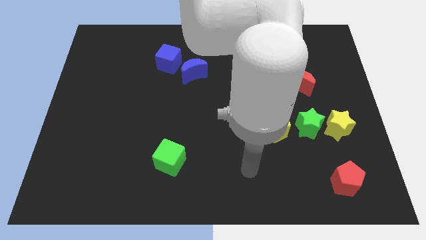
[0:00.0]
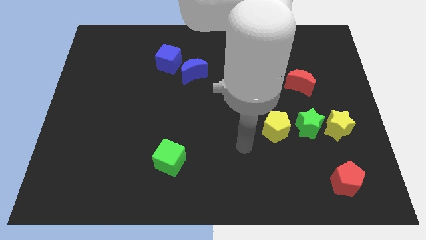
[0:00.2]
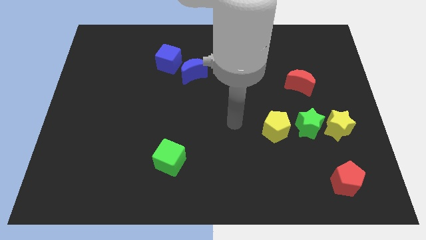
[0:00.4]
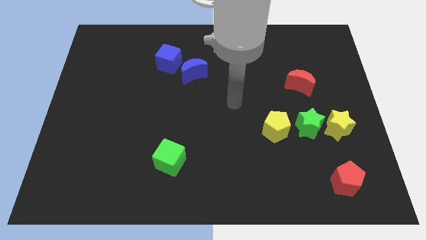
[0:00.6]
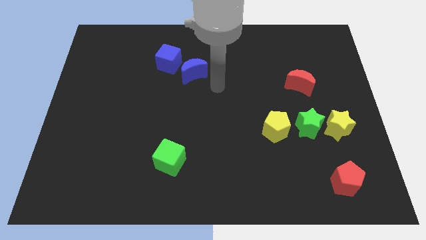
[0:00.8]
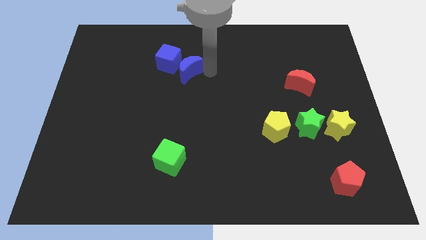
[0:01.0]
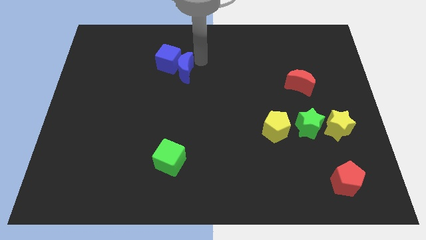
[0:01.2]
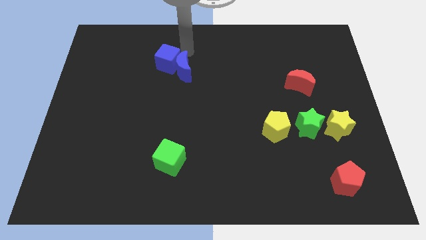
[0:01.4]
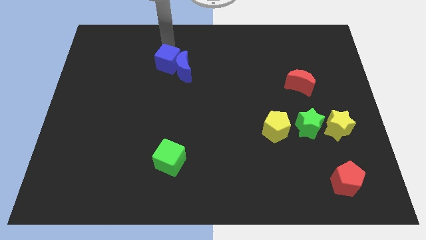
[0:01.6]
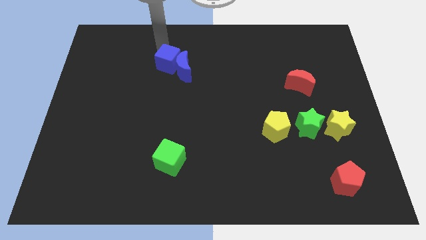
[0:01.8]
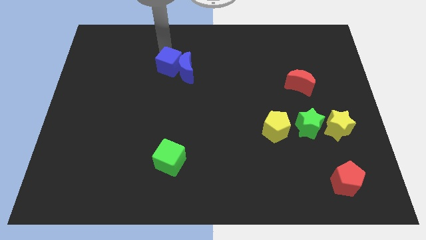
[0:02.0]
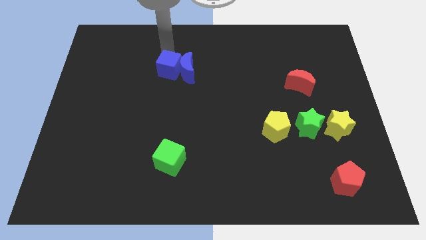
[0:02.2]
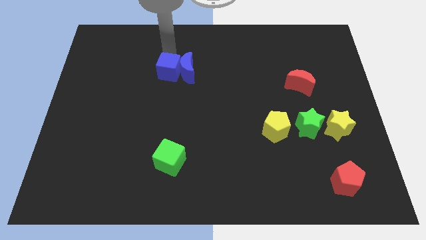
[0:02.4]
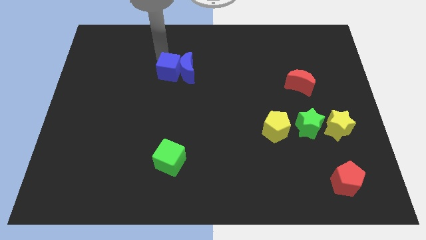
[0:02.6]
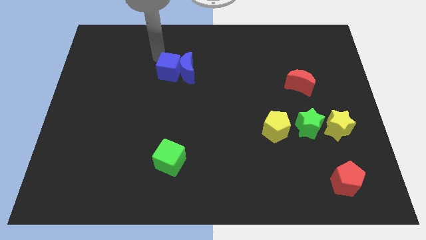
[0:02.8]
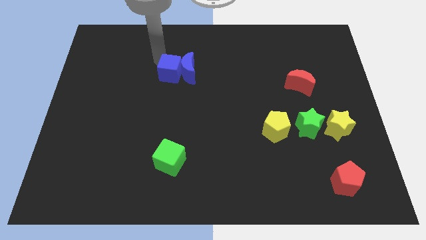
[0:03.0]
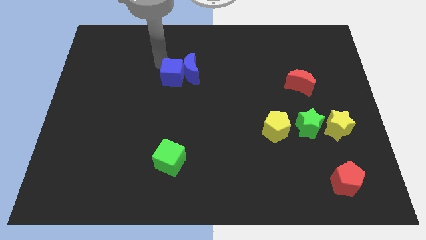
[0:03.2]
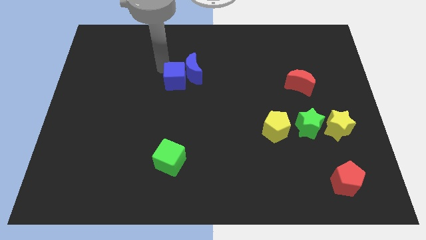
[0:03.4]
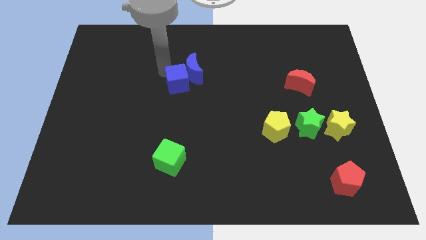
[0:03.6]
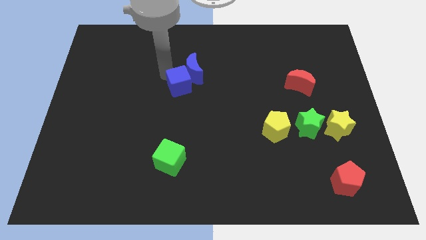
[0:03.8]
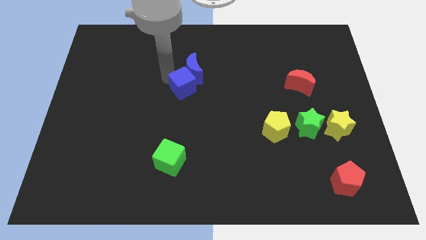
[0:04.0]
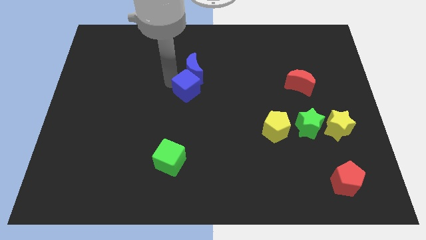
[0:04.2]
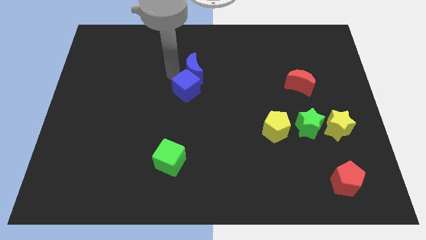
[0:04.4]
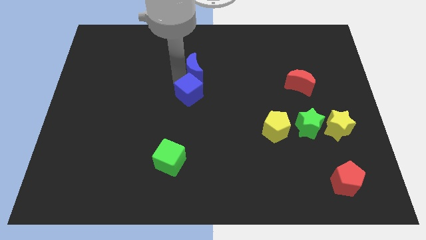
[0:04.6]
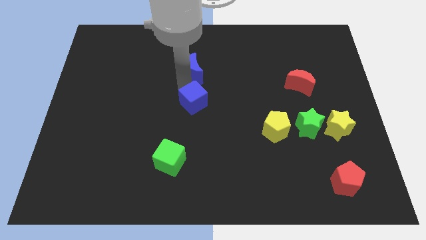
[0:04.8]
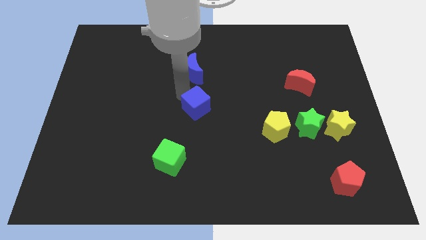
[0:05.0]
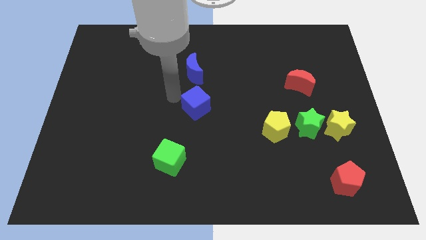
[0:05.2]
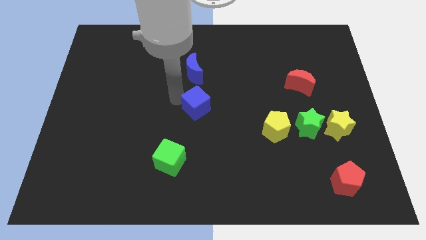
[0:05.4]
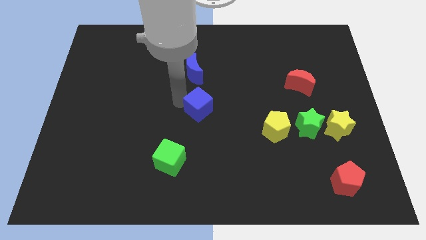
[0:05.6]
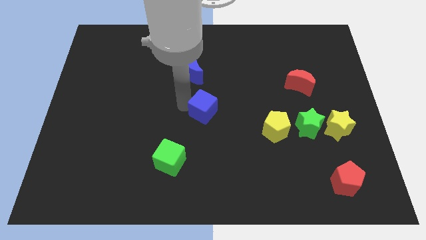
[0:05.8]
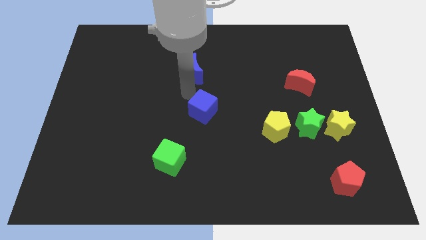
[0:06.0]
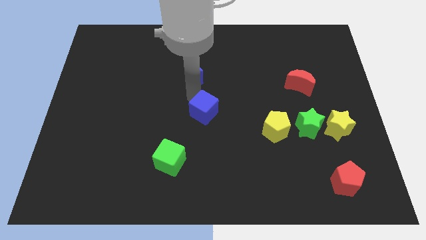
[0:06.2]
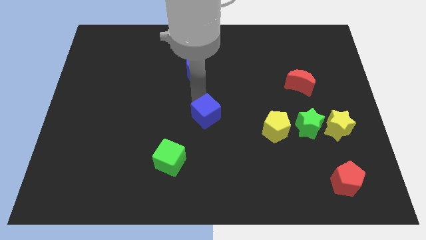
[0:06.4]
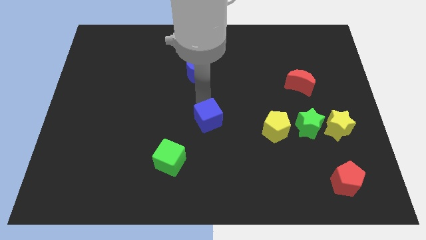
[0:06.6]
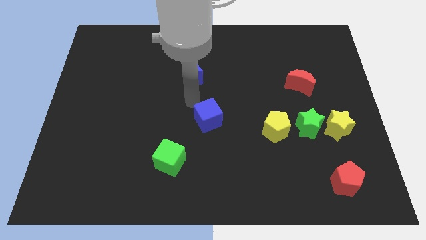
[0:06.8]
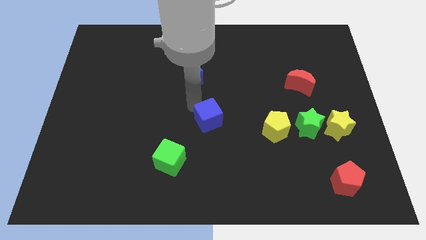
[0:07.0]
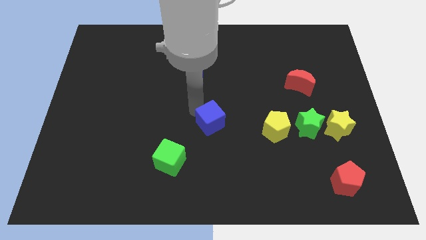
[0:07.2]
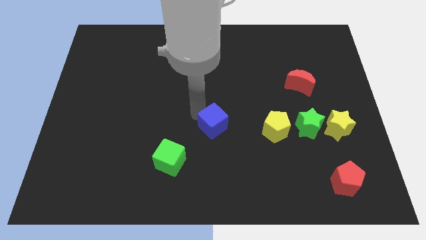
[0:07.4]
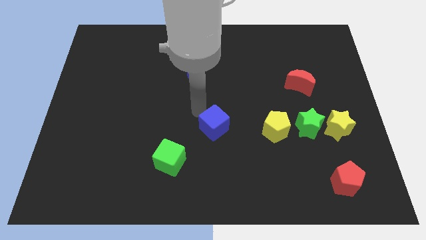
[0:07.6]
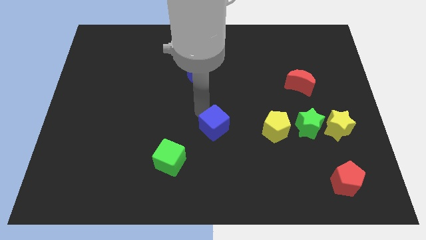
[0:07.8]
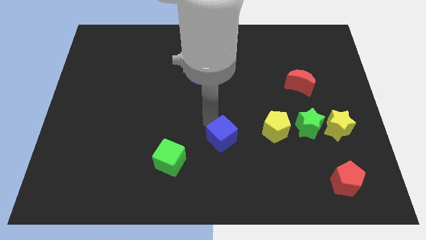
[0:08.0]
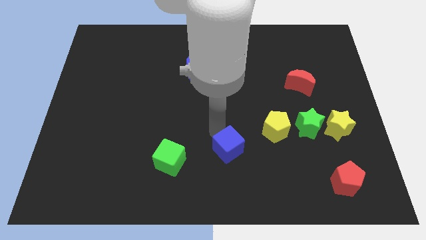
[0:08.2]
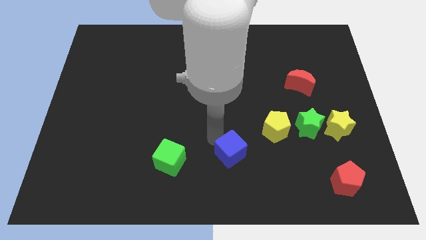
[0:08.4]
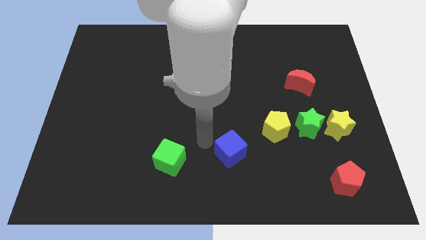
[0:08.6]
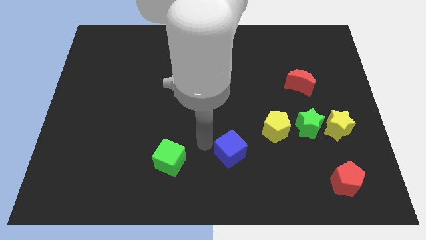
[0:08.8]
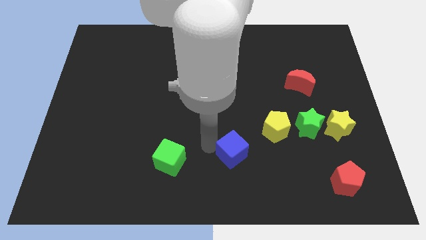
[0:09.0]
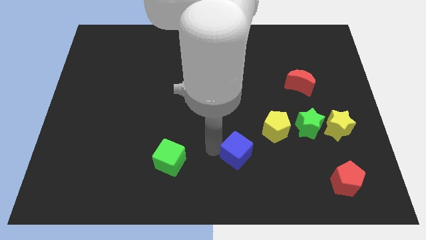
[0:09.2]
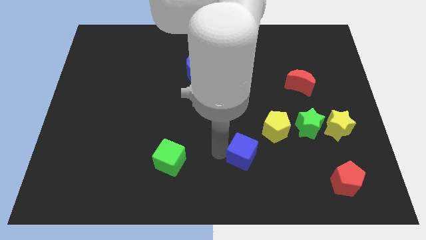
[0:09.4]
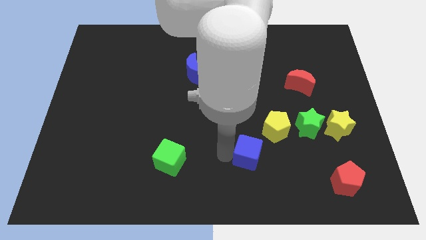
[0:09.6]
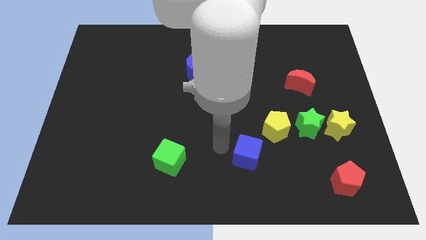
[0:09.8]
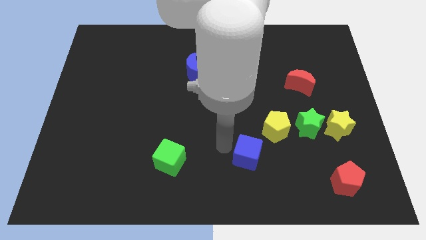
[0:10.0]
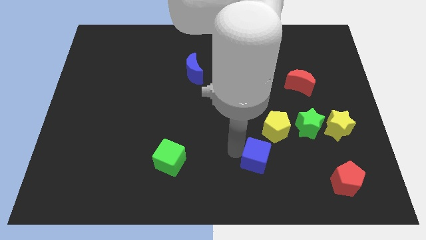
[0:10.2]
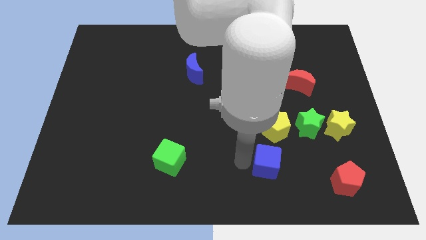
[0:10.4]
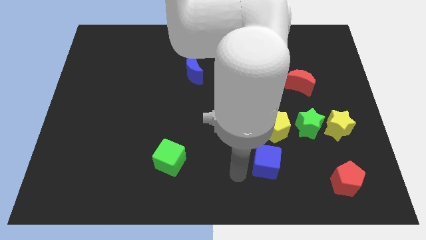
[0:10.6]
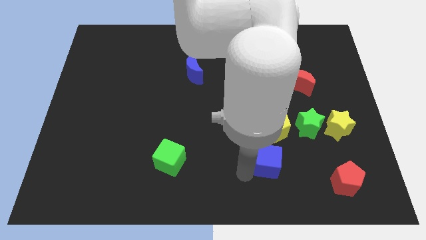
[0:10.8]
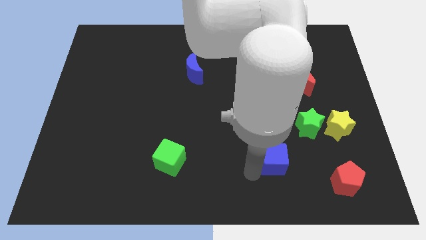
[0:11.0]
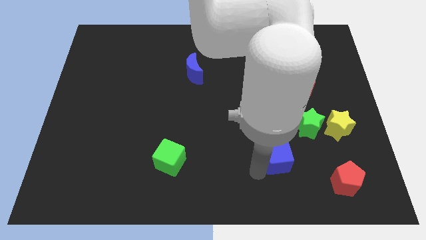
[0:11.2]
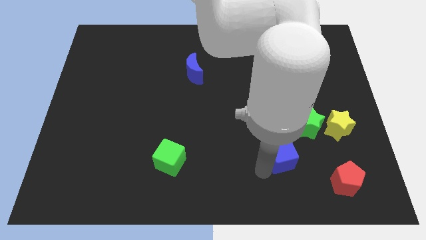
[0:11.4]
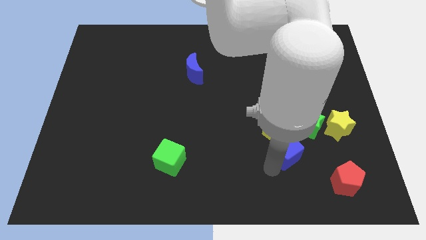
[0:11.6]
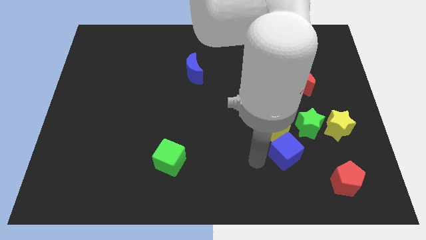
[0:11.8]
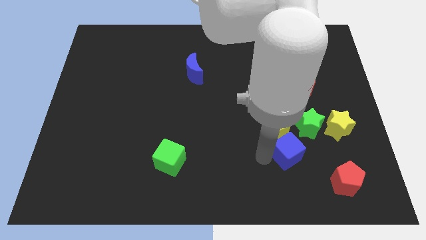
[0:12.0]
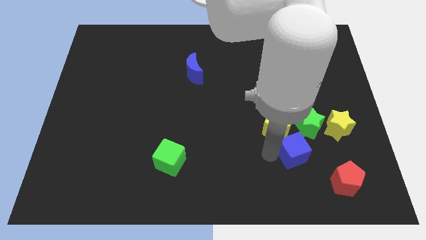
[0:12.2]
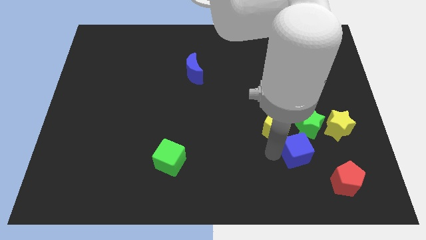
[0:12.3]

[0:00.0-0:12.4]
slide the blue cube diagonally down and to the left of the yellow star

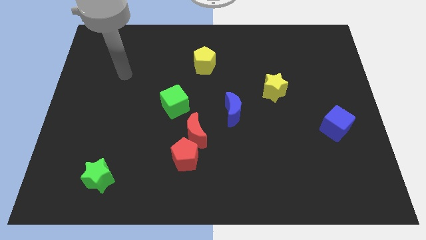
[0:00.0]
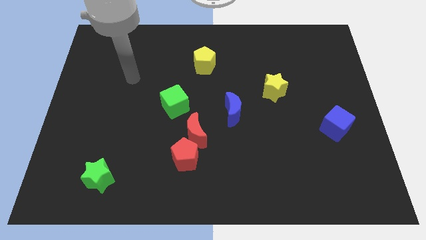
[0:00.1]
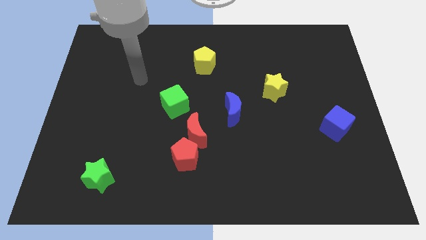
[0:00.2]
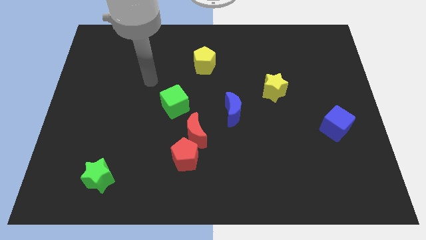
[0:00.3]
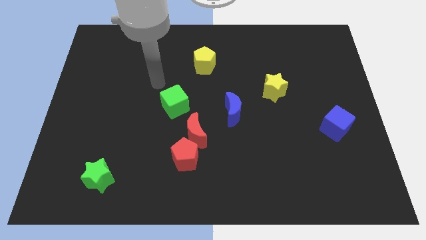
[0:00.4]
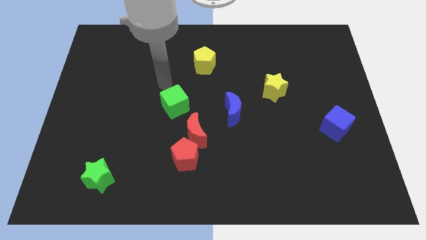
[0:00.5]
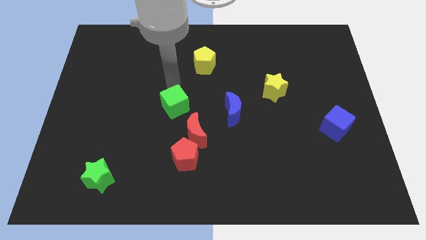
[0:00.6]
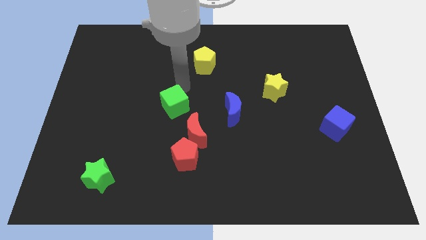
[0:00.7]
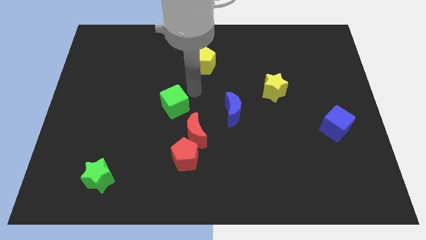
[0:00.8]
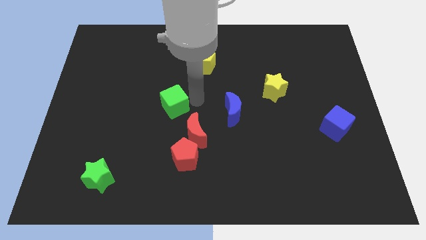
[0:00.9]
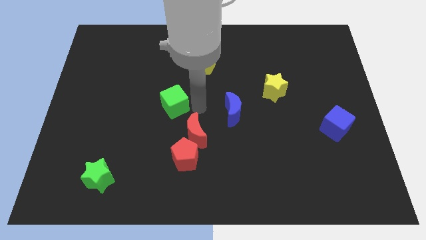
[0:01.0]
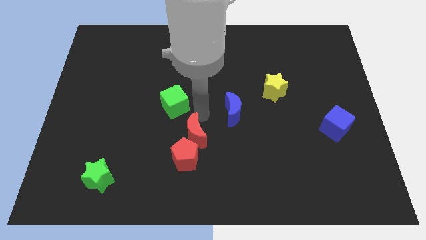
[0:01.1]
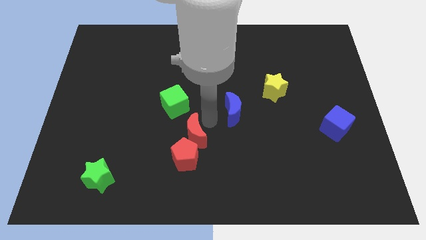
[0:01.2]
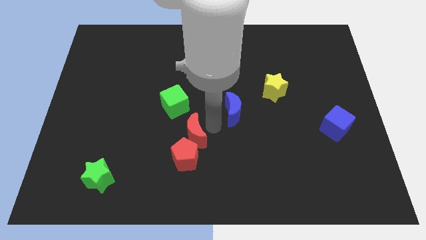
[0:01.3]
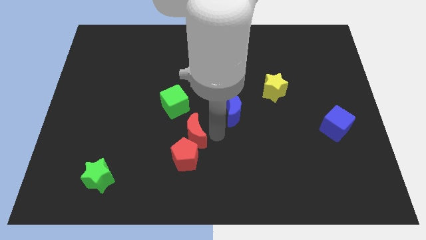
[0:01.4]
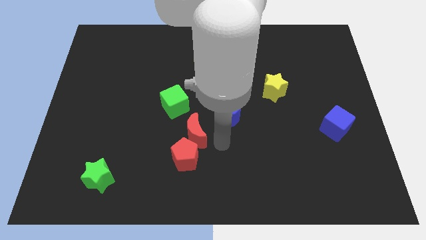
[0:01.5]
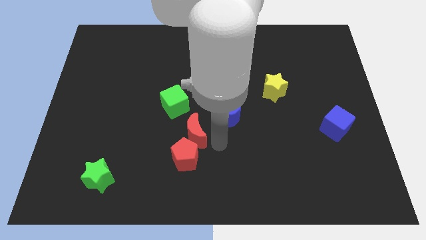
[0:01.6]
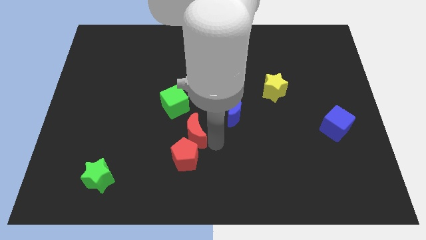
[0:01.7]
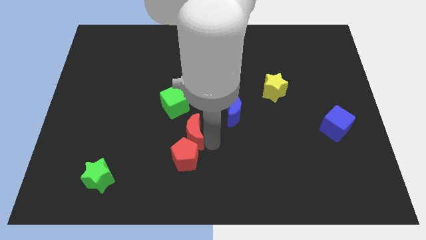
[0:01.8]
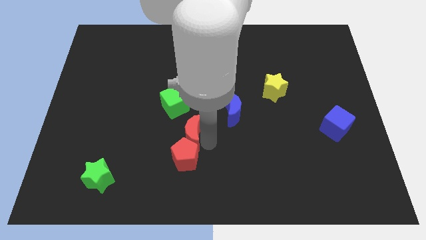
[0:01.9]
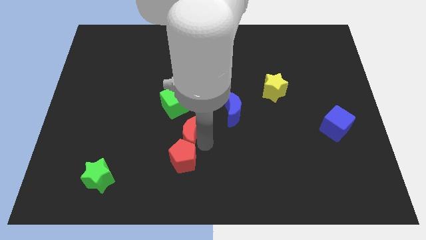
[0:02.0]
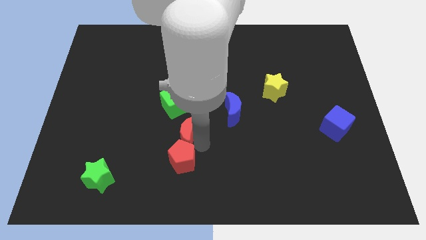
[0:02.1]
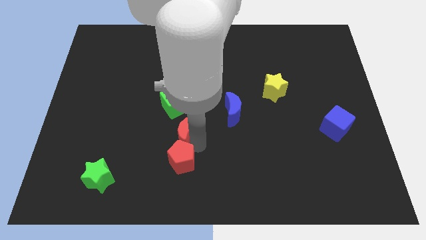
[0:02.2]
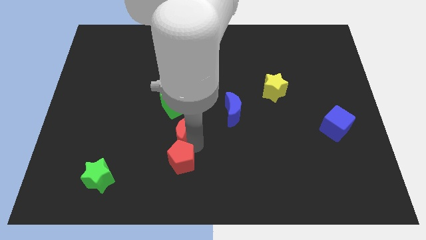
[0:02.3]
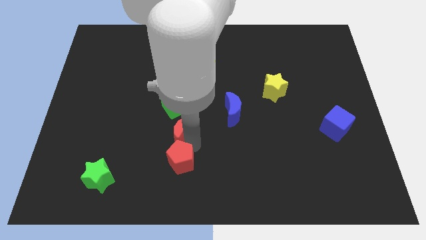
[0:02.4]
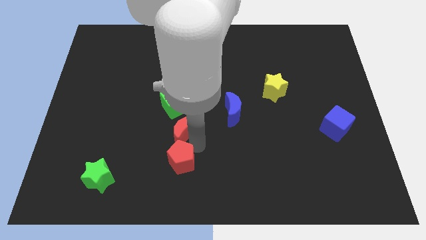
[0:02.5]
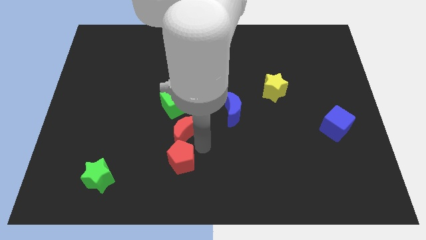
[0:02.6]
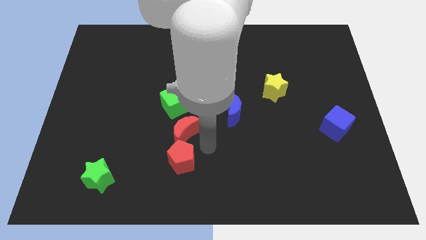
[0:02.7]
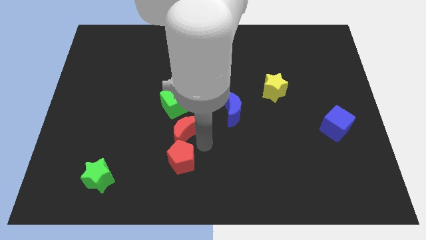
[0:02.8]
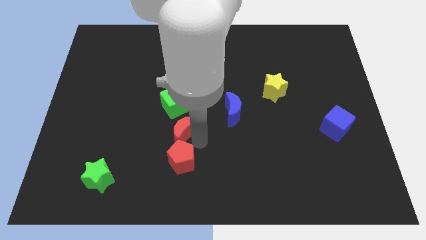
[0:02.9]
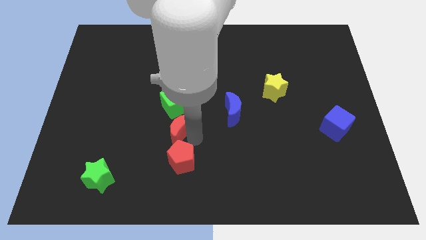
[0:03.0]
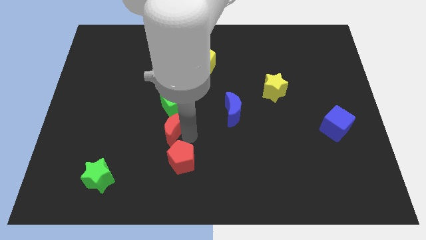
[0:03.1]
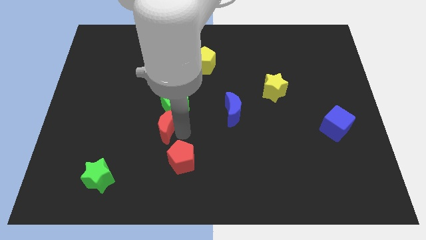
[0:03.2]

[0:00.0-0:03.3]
move the red moon to the bottom left side of the green cube
